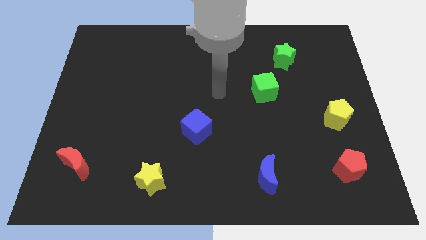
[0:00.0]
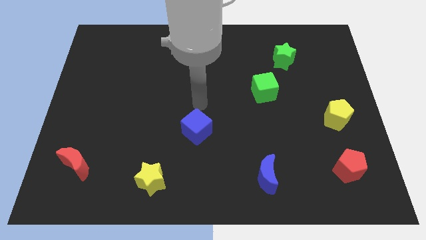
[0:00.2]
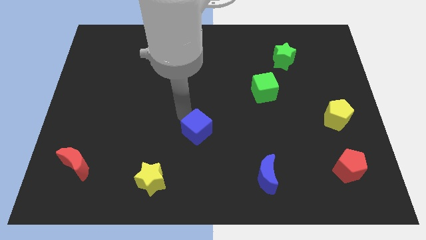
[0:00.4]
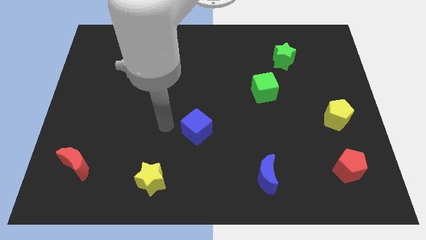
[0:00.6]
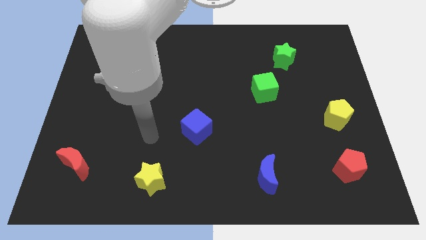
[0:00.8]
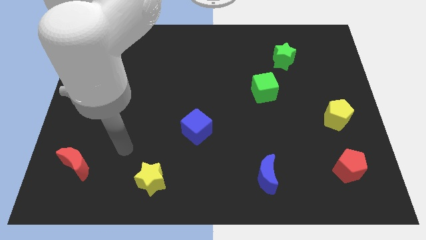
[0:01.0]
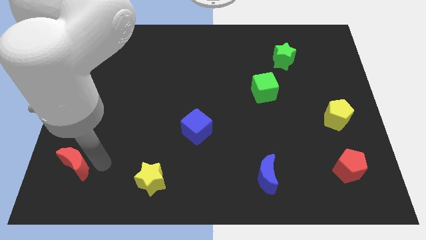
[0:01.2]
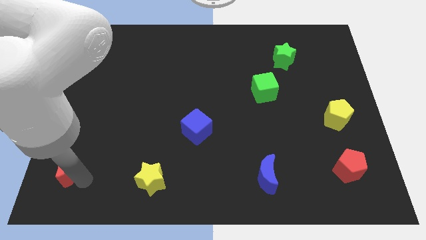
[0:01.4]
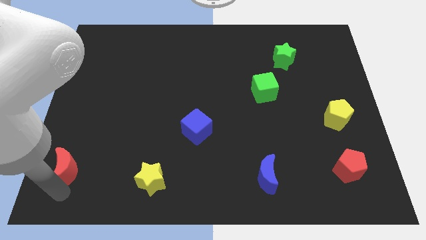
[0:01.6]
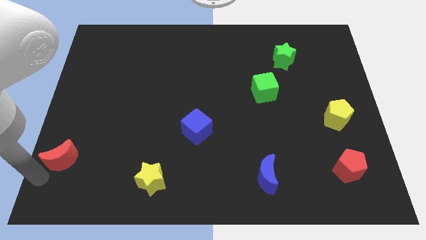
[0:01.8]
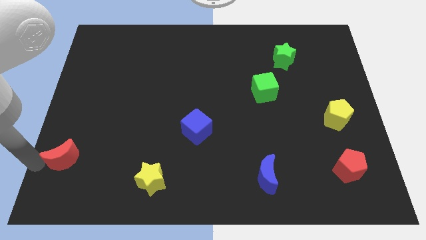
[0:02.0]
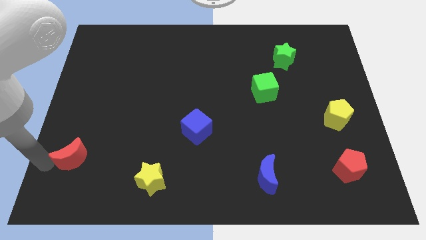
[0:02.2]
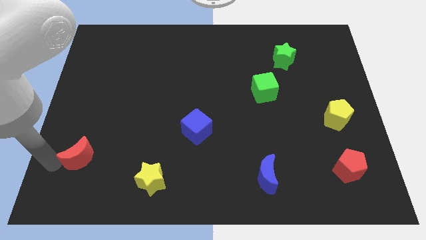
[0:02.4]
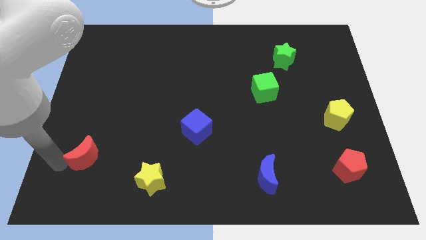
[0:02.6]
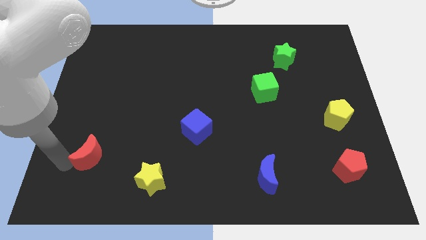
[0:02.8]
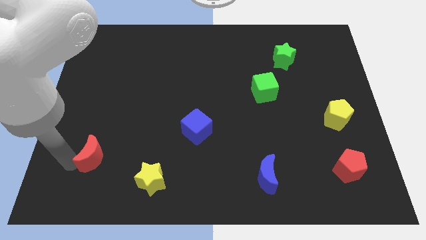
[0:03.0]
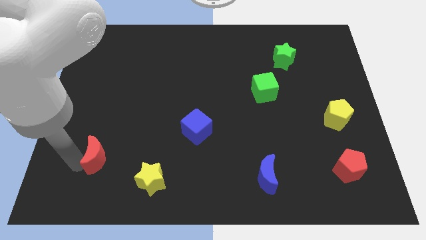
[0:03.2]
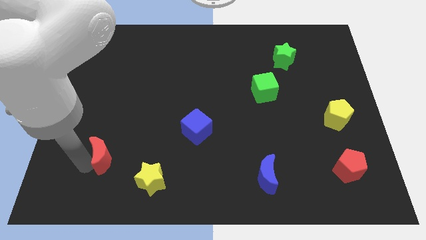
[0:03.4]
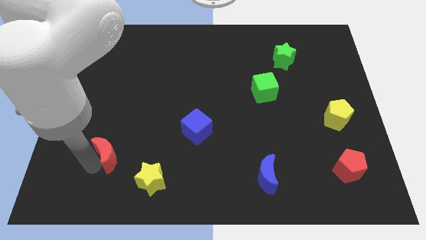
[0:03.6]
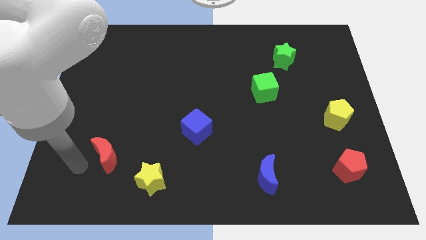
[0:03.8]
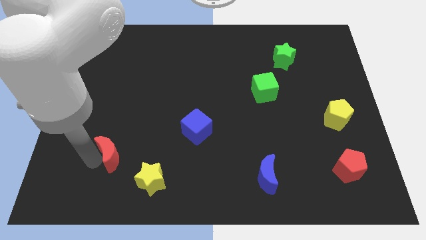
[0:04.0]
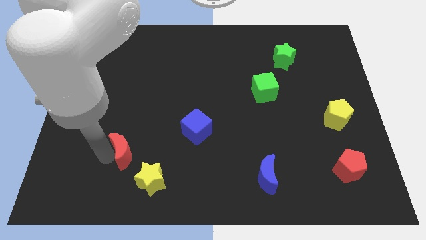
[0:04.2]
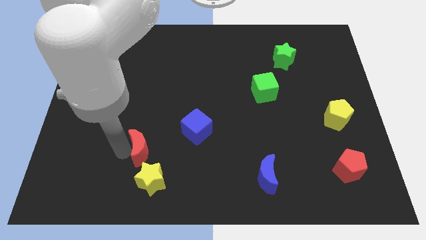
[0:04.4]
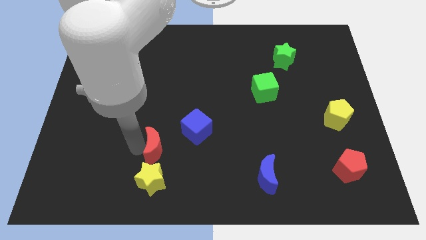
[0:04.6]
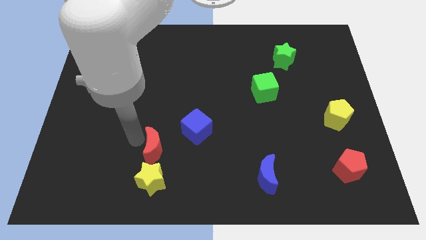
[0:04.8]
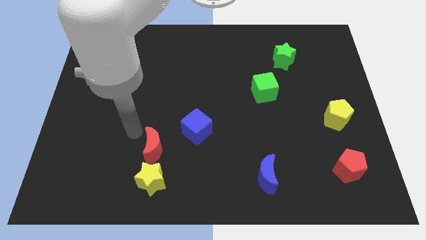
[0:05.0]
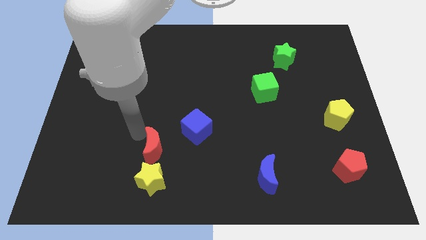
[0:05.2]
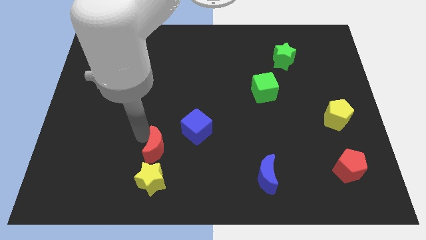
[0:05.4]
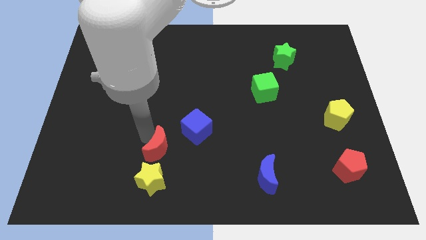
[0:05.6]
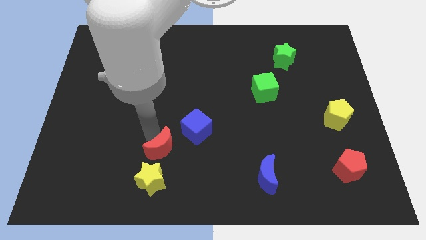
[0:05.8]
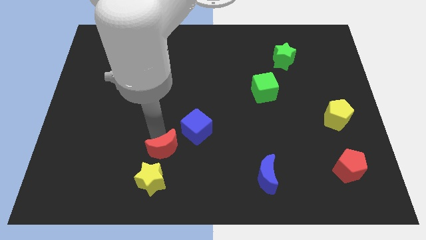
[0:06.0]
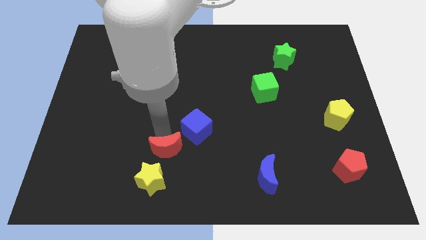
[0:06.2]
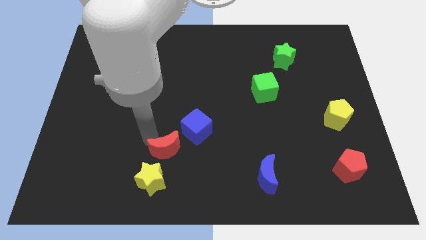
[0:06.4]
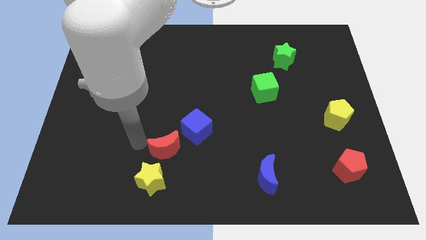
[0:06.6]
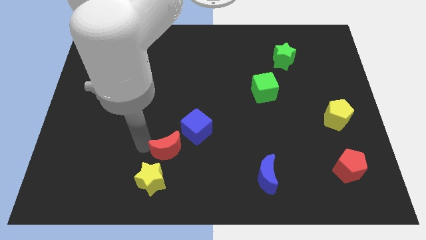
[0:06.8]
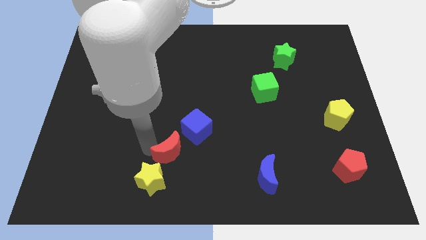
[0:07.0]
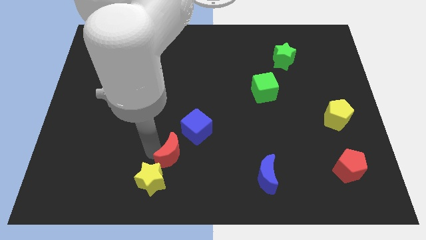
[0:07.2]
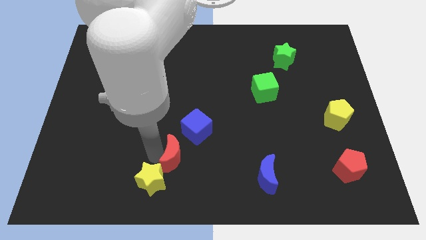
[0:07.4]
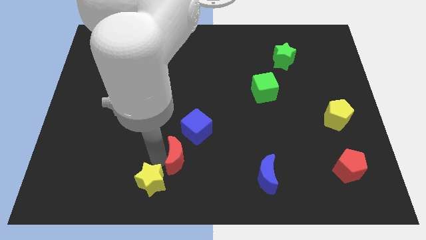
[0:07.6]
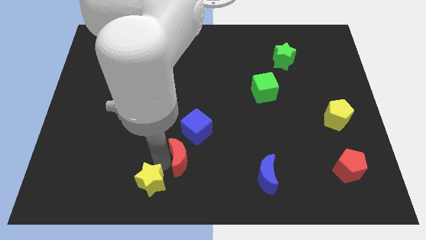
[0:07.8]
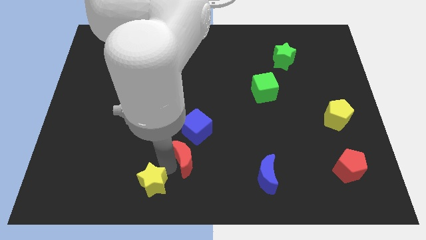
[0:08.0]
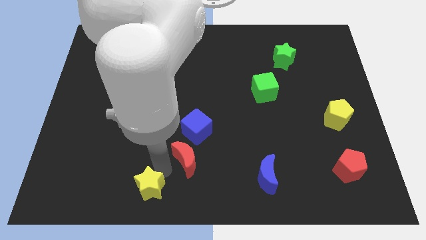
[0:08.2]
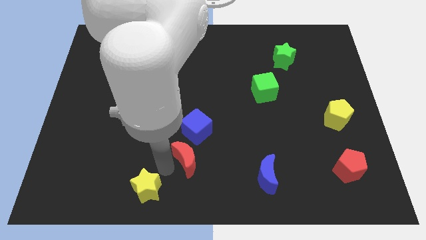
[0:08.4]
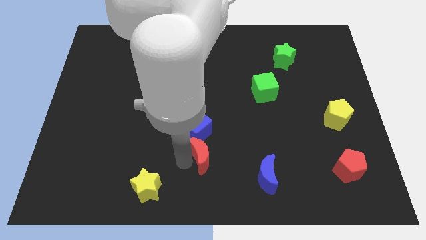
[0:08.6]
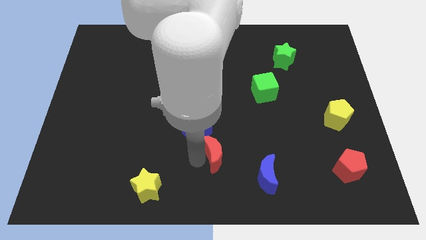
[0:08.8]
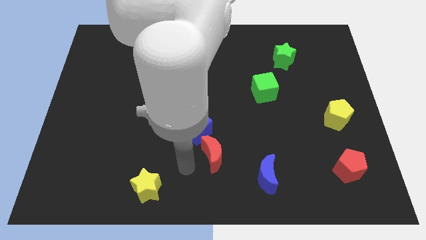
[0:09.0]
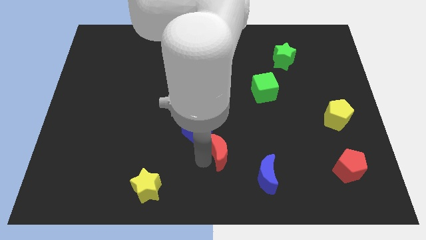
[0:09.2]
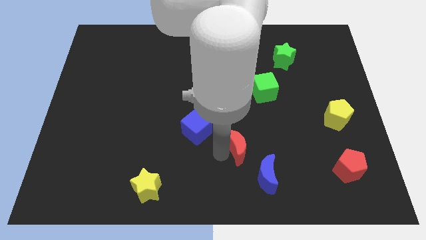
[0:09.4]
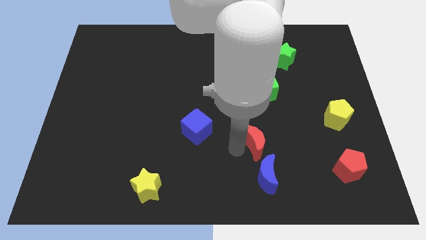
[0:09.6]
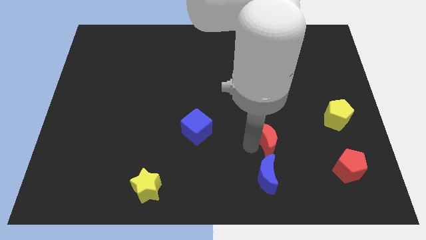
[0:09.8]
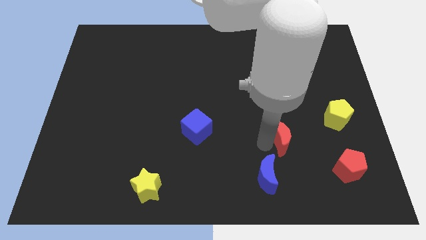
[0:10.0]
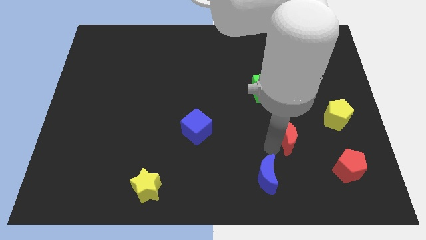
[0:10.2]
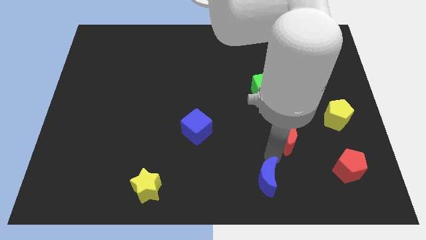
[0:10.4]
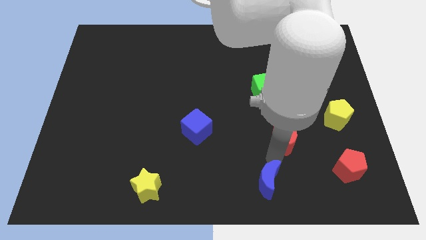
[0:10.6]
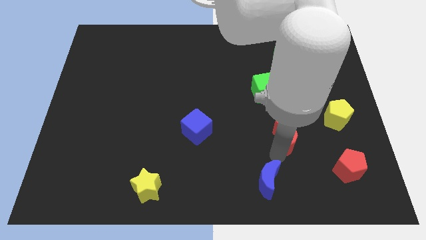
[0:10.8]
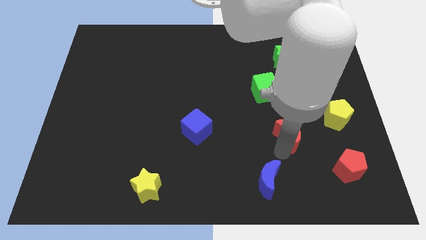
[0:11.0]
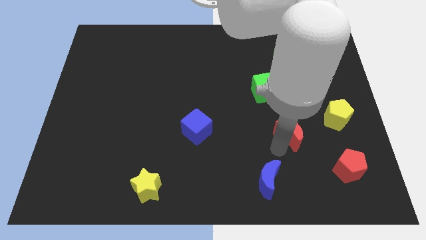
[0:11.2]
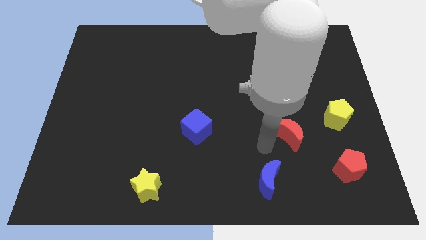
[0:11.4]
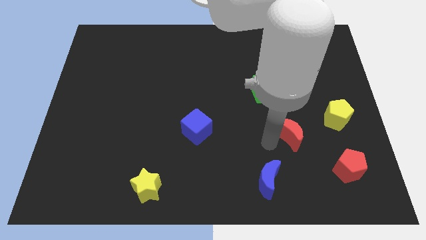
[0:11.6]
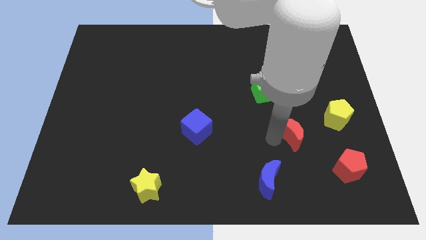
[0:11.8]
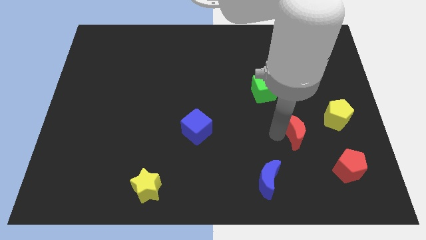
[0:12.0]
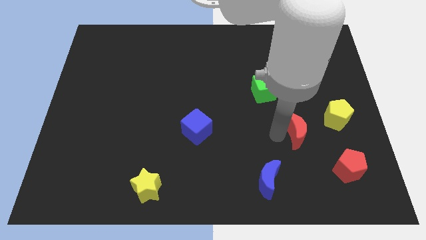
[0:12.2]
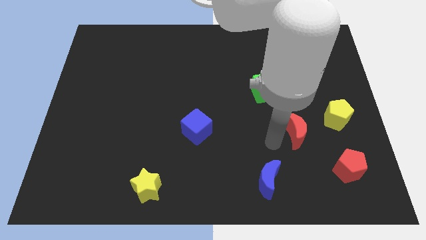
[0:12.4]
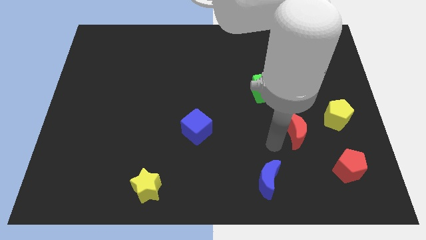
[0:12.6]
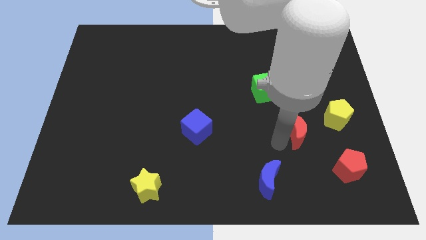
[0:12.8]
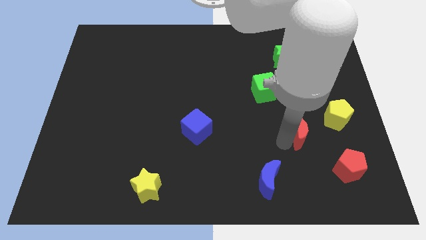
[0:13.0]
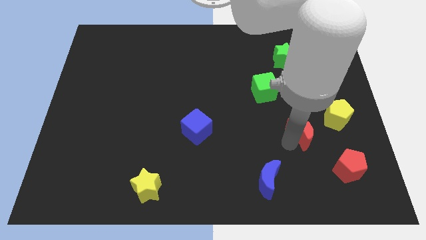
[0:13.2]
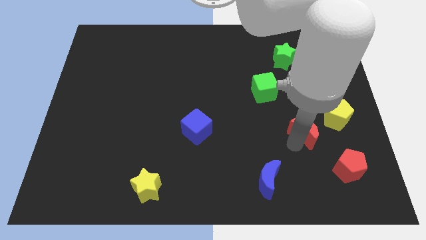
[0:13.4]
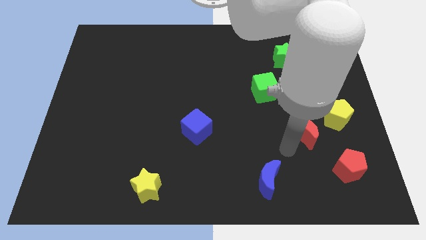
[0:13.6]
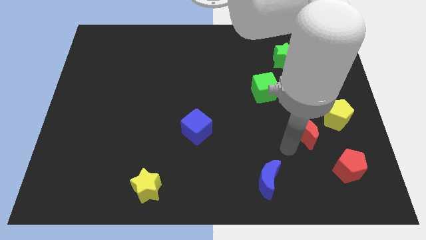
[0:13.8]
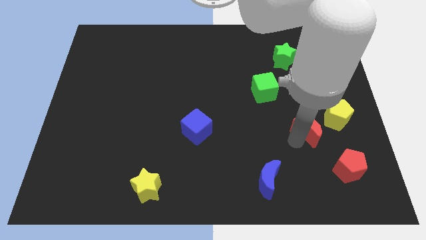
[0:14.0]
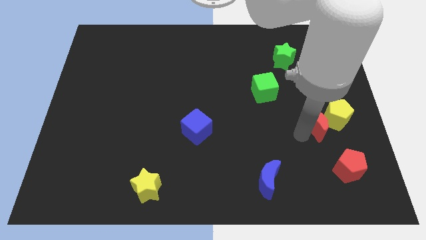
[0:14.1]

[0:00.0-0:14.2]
push the red moon next to the yellow pentagon

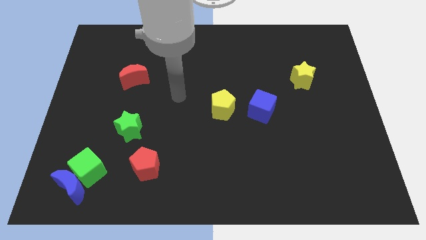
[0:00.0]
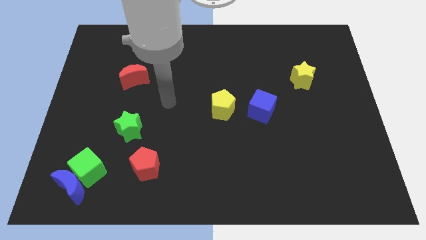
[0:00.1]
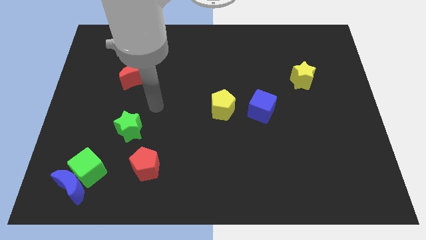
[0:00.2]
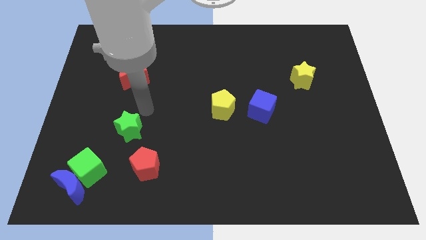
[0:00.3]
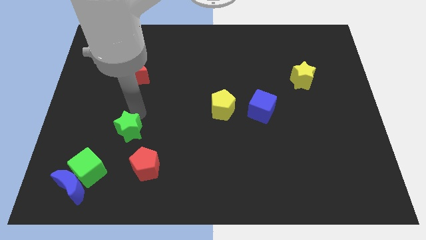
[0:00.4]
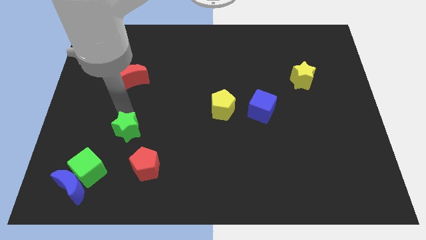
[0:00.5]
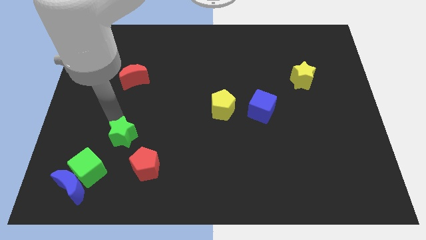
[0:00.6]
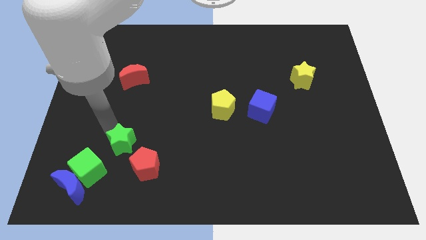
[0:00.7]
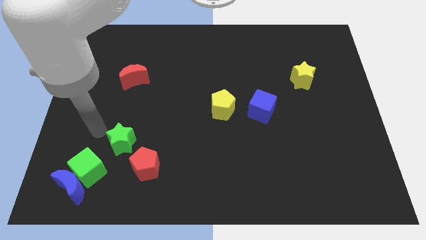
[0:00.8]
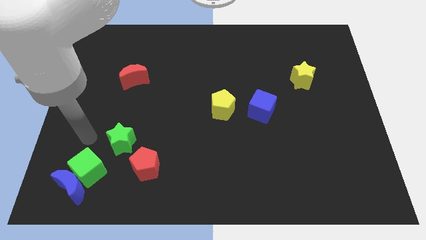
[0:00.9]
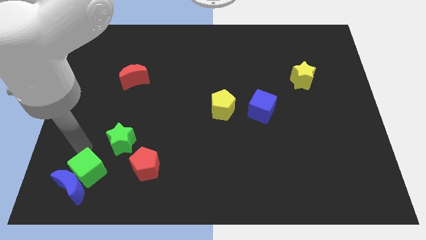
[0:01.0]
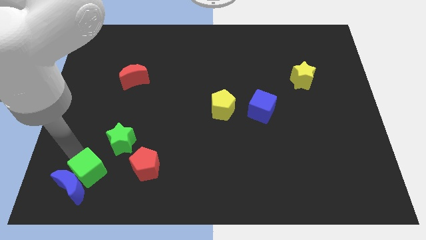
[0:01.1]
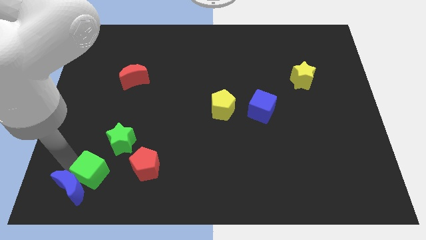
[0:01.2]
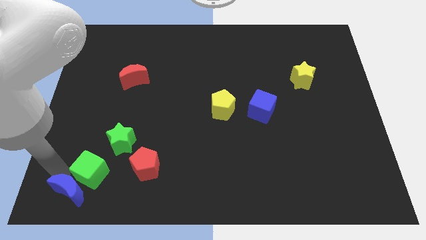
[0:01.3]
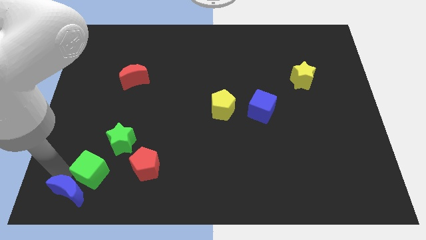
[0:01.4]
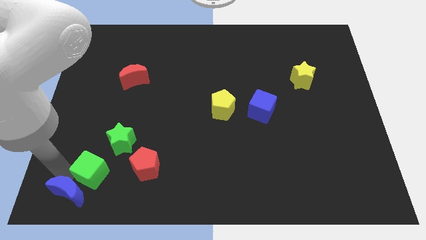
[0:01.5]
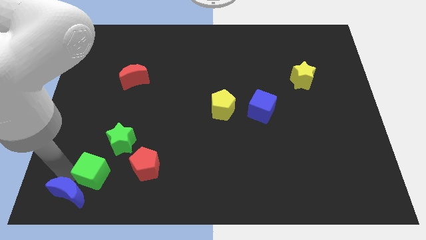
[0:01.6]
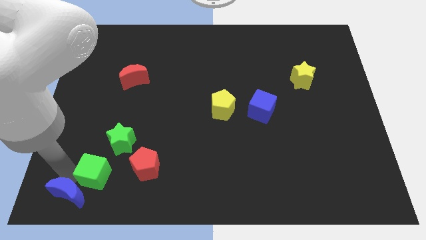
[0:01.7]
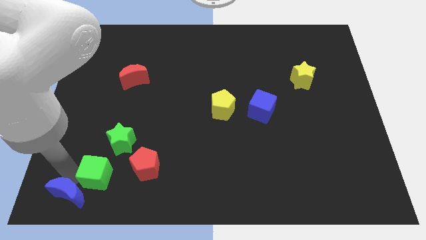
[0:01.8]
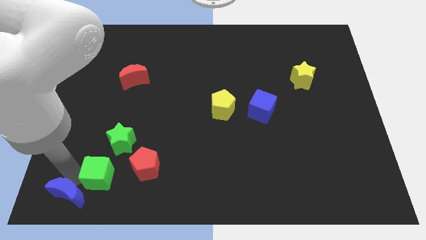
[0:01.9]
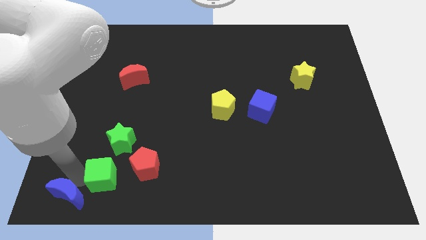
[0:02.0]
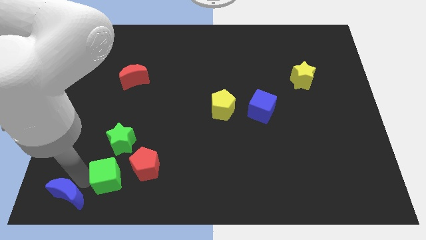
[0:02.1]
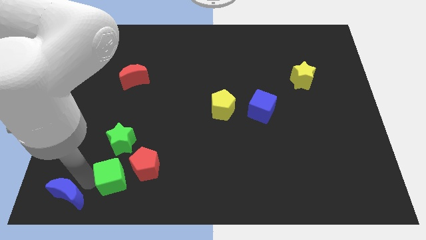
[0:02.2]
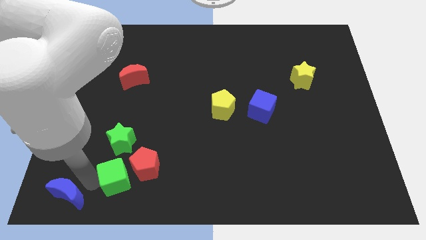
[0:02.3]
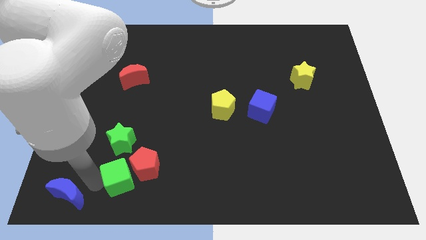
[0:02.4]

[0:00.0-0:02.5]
put the green cube to the red pentagon
